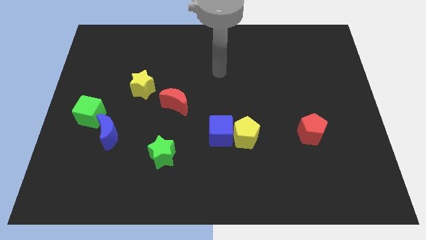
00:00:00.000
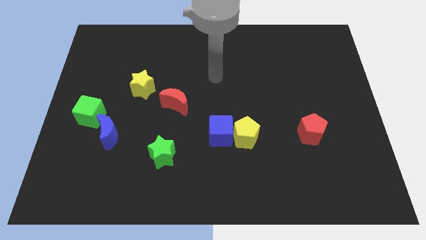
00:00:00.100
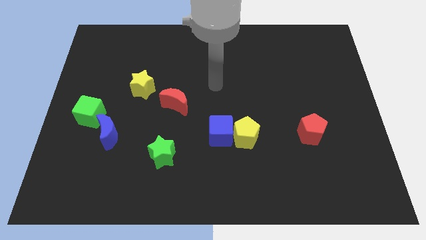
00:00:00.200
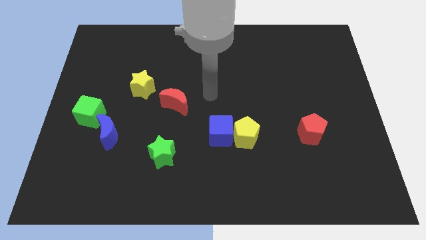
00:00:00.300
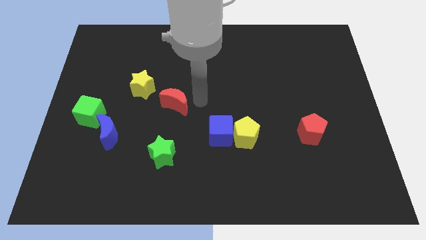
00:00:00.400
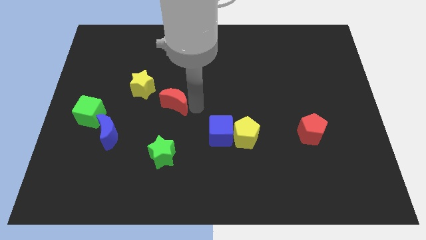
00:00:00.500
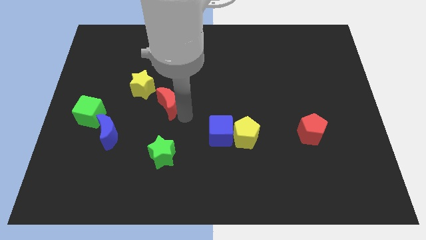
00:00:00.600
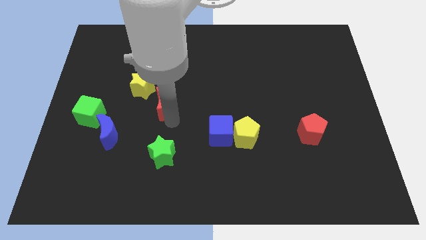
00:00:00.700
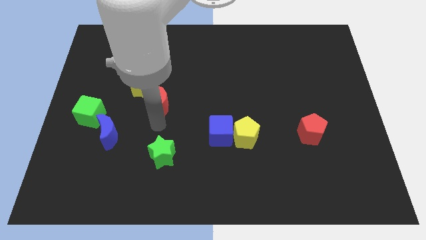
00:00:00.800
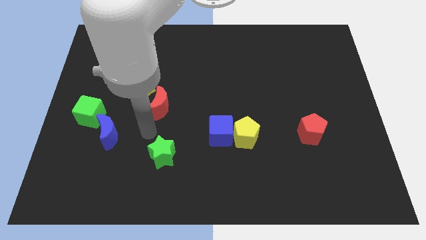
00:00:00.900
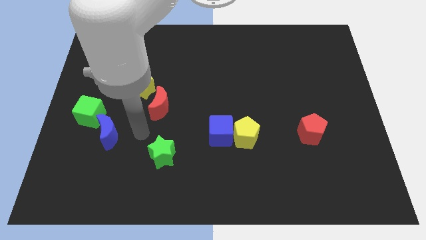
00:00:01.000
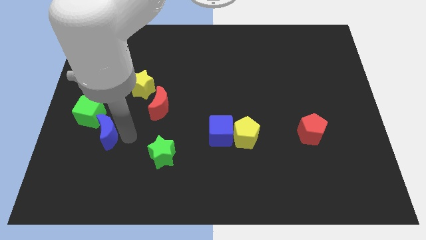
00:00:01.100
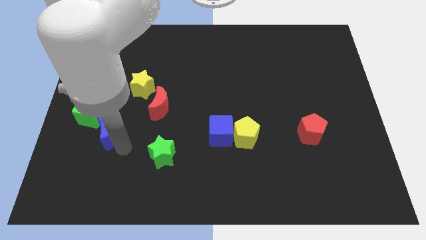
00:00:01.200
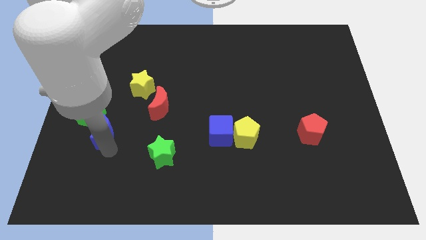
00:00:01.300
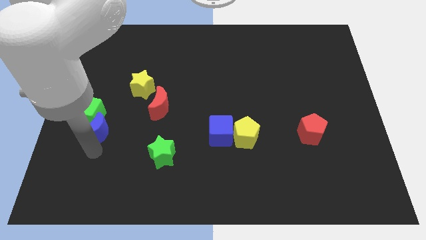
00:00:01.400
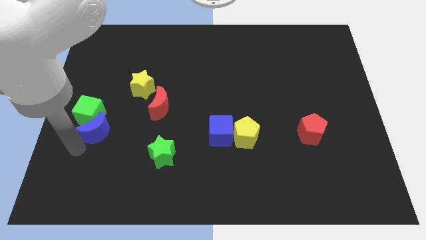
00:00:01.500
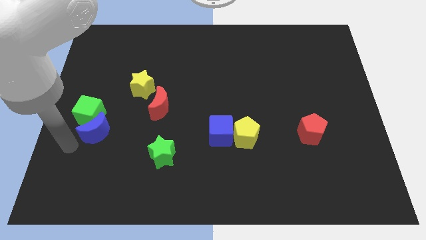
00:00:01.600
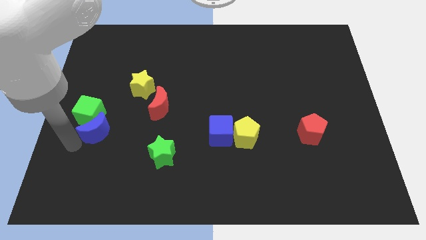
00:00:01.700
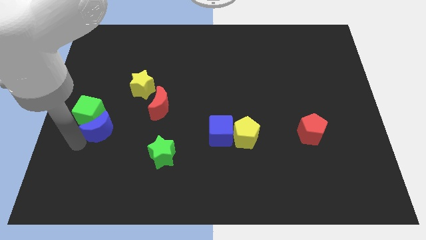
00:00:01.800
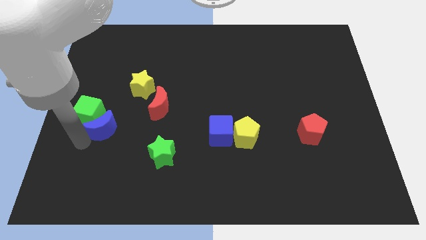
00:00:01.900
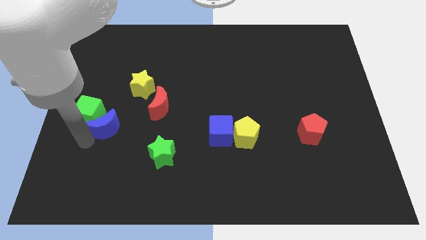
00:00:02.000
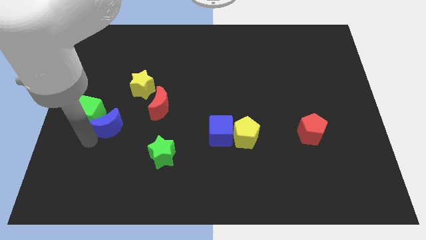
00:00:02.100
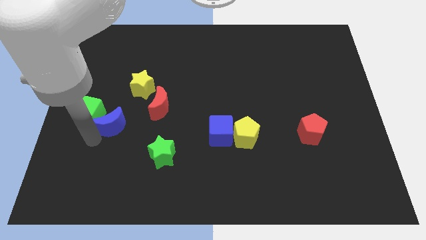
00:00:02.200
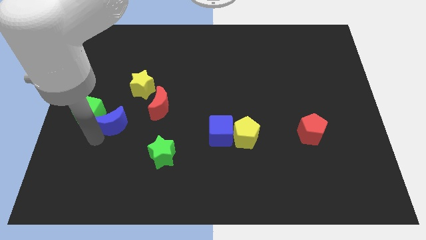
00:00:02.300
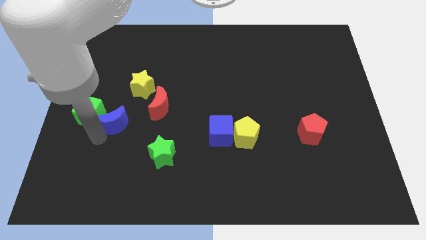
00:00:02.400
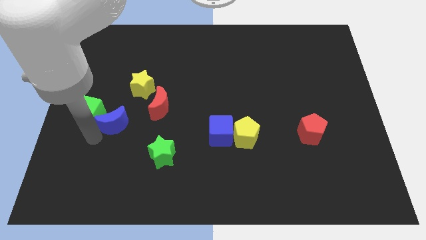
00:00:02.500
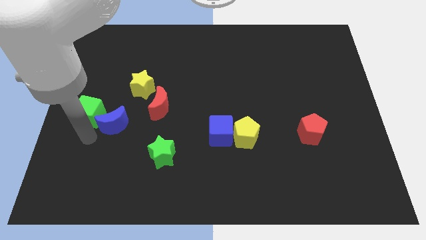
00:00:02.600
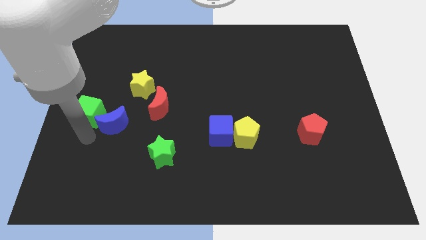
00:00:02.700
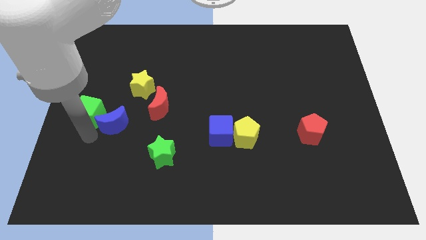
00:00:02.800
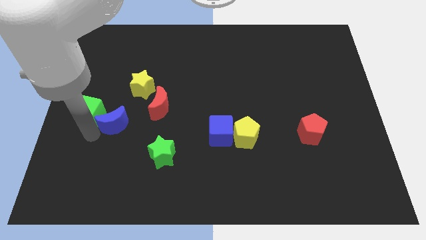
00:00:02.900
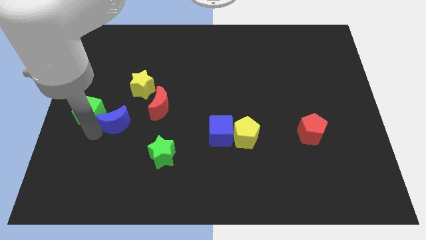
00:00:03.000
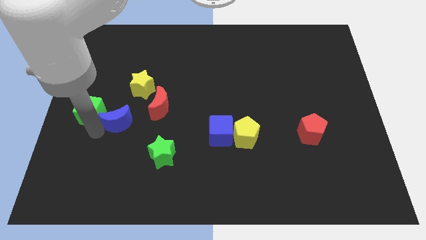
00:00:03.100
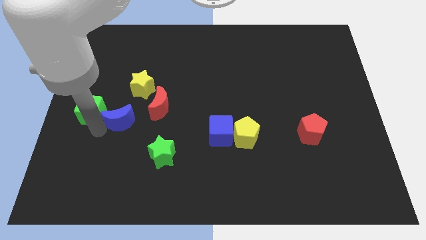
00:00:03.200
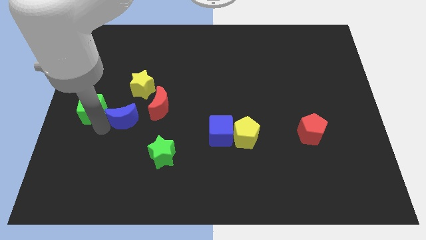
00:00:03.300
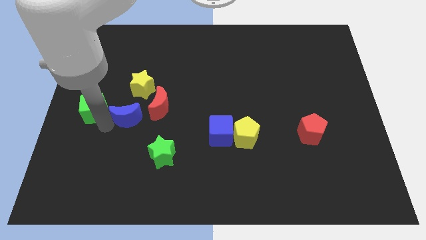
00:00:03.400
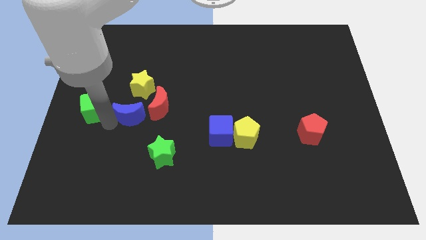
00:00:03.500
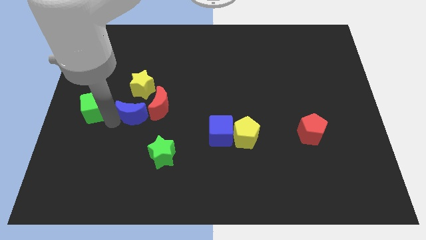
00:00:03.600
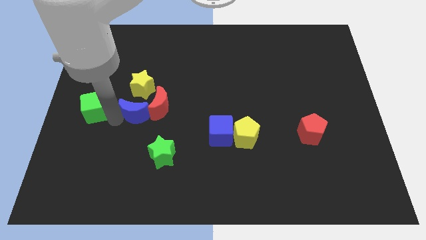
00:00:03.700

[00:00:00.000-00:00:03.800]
slightly push the blue moon upwards and to the right diagonally

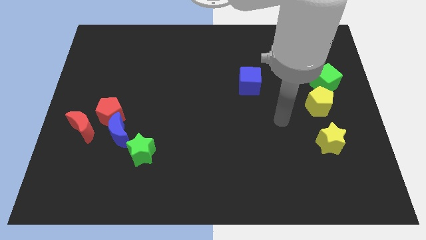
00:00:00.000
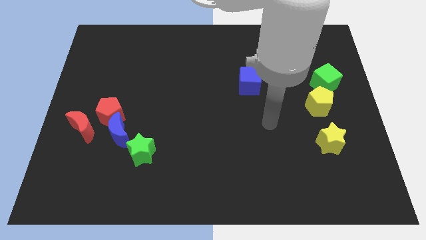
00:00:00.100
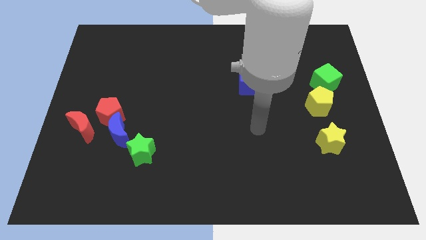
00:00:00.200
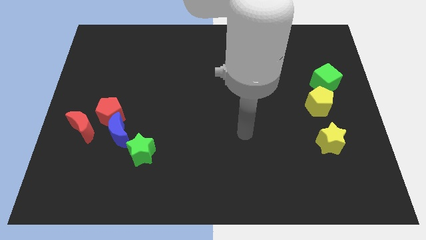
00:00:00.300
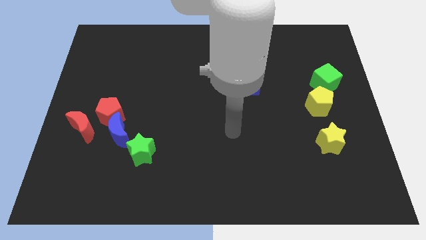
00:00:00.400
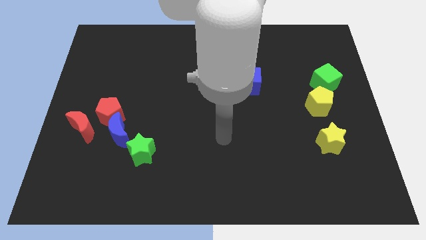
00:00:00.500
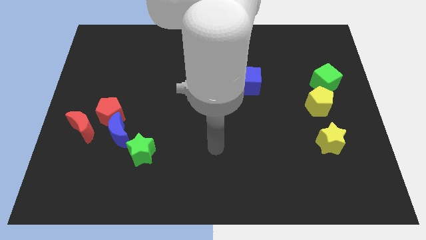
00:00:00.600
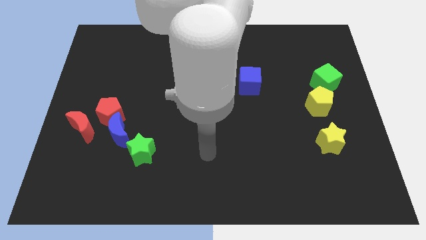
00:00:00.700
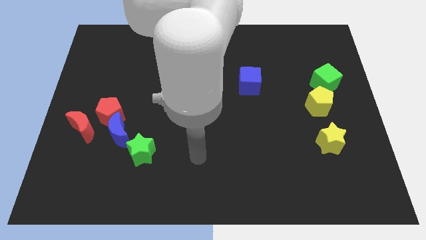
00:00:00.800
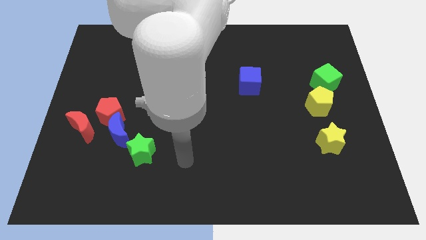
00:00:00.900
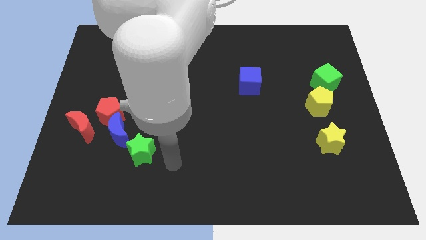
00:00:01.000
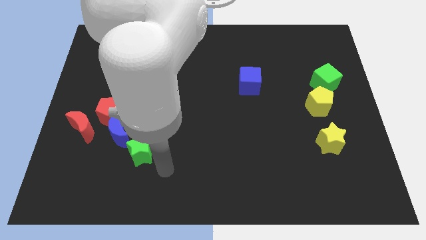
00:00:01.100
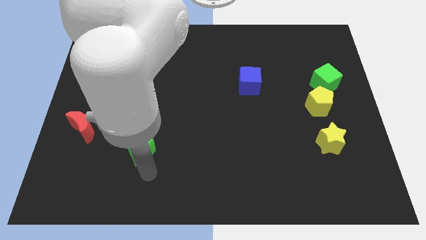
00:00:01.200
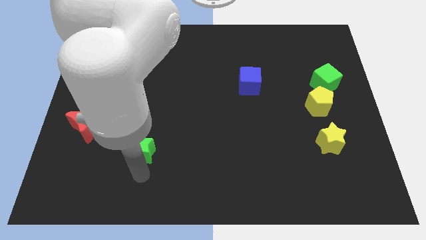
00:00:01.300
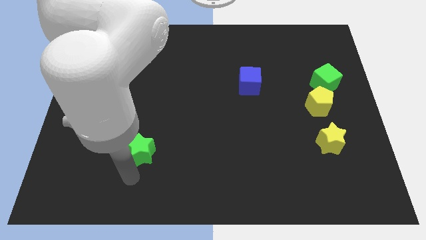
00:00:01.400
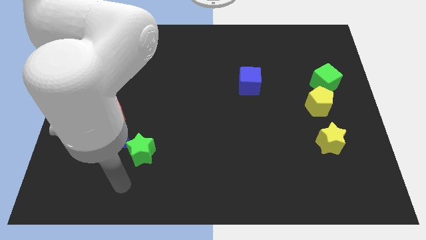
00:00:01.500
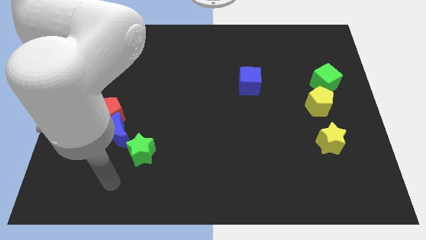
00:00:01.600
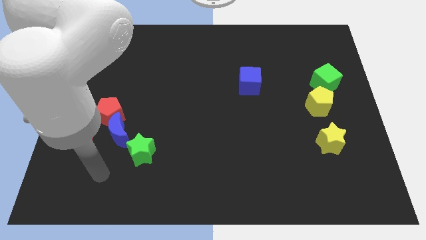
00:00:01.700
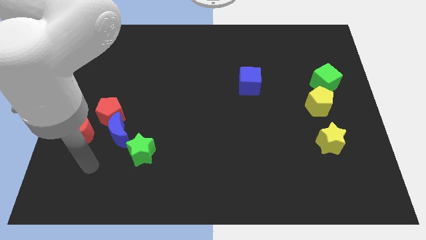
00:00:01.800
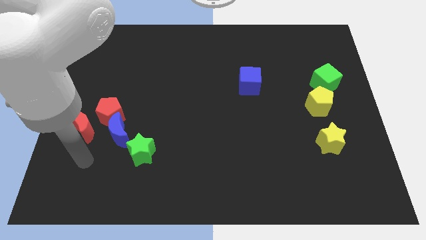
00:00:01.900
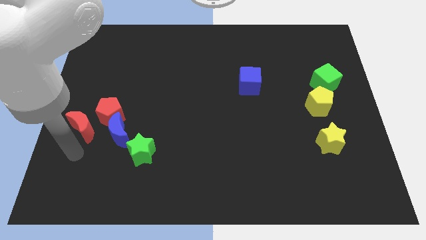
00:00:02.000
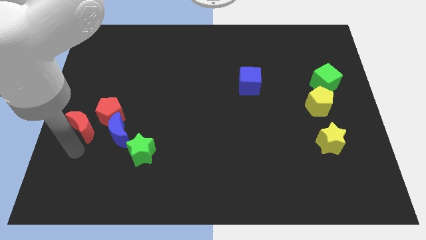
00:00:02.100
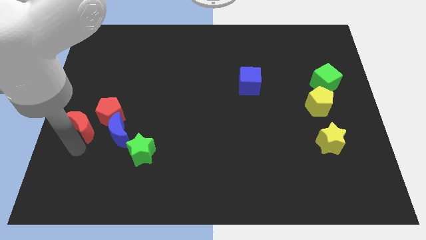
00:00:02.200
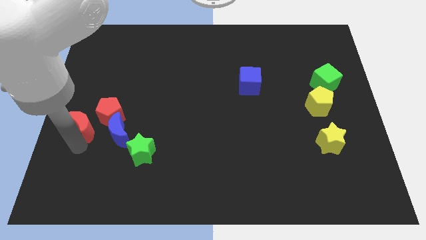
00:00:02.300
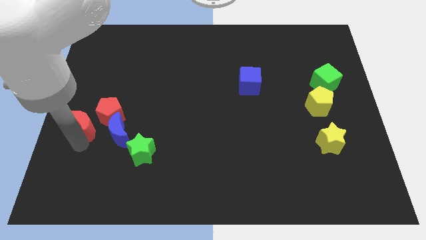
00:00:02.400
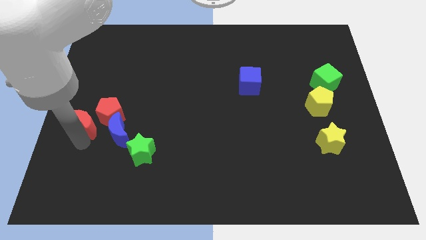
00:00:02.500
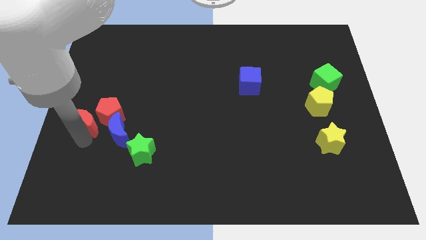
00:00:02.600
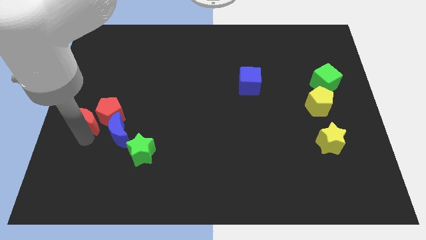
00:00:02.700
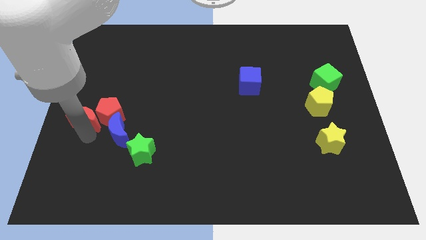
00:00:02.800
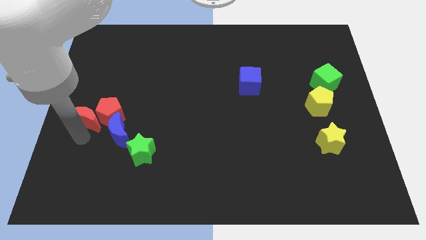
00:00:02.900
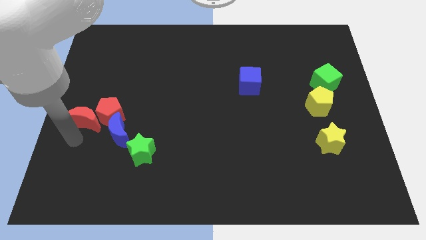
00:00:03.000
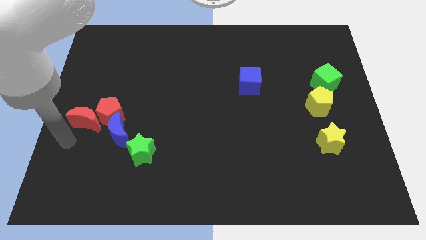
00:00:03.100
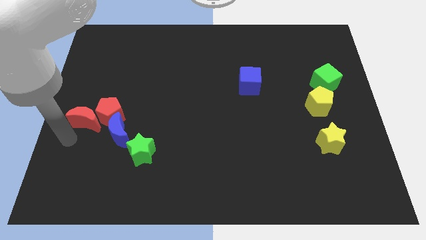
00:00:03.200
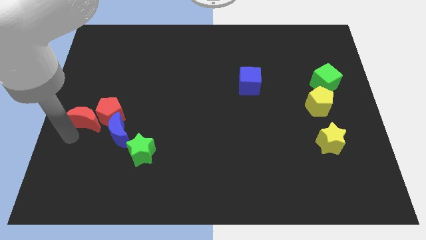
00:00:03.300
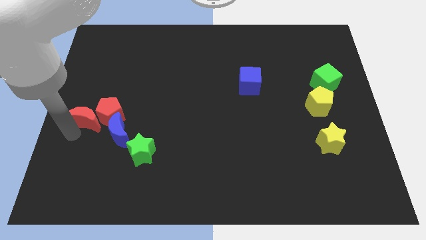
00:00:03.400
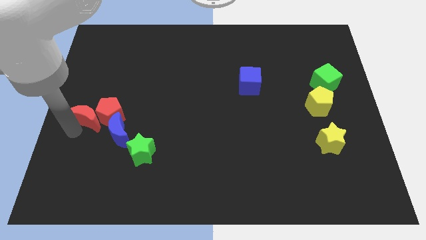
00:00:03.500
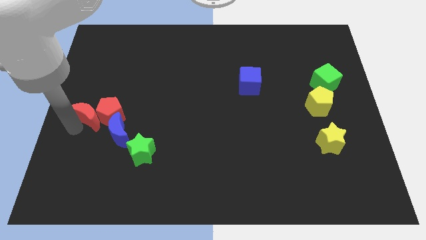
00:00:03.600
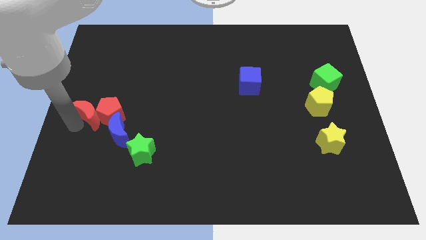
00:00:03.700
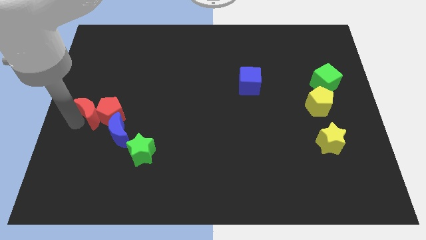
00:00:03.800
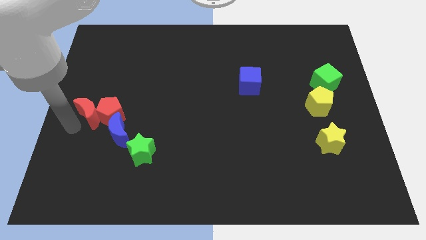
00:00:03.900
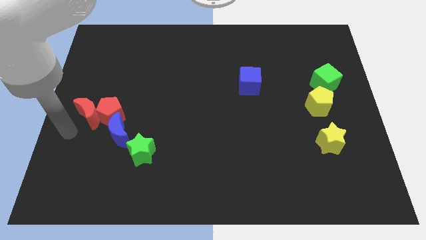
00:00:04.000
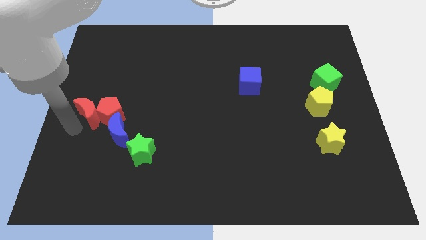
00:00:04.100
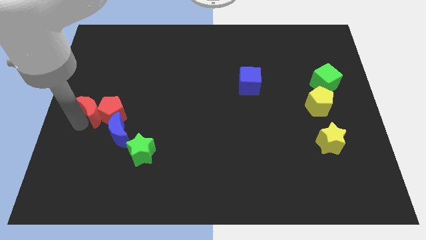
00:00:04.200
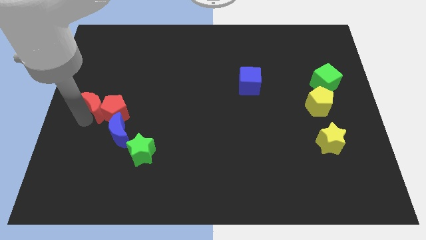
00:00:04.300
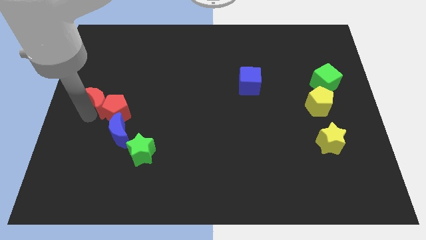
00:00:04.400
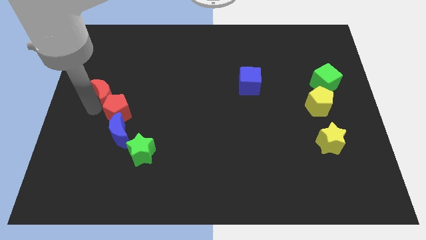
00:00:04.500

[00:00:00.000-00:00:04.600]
slightly slide the red moon diagonally up and right
